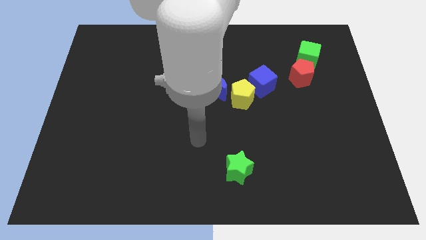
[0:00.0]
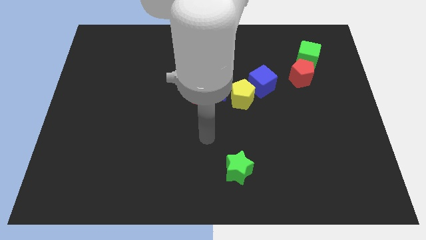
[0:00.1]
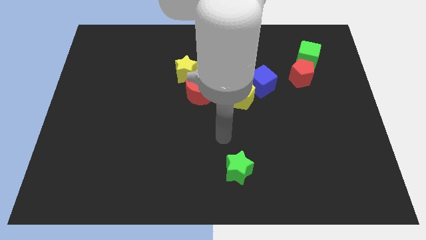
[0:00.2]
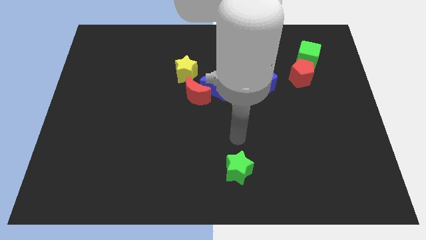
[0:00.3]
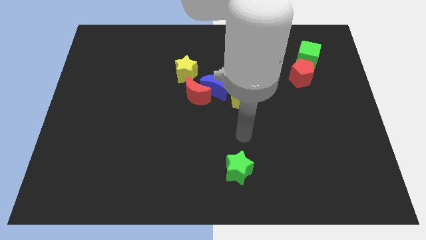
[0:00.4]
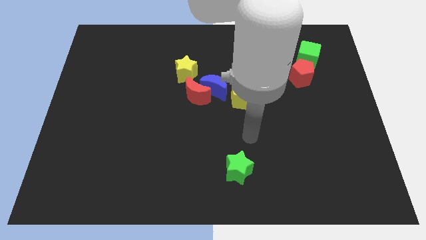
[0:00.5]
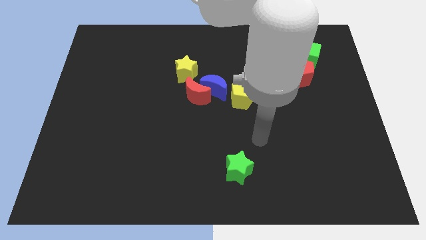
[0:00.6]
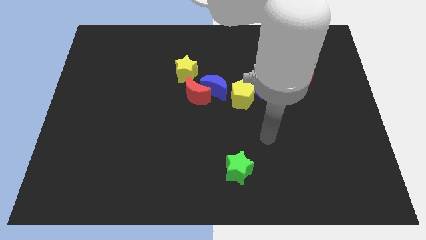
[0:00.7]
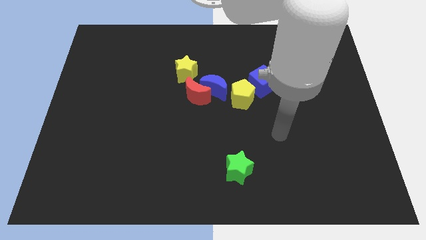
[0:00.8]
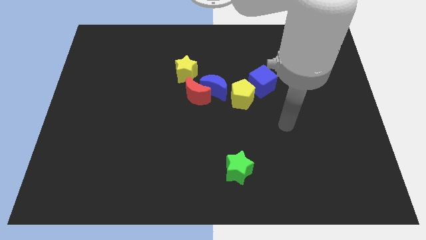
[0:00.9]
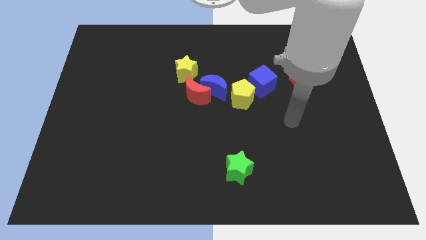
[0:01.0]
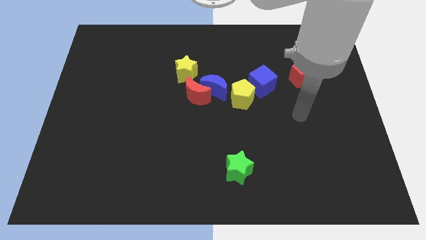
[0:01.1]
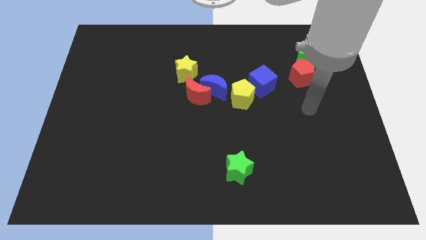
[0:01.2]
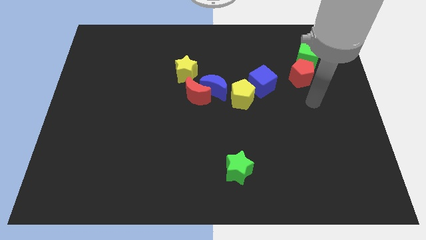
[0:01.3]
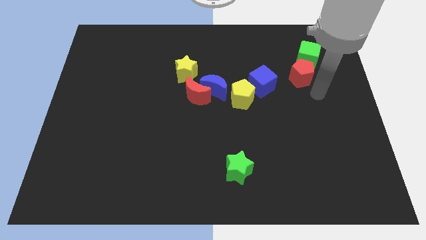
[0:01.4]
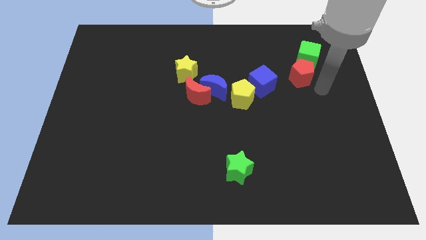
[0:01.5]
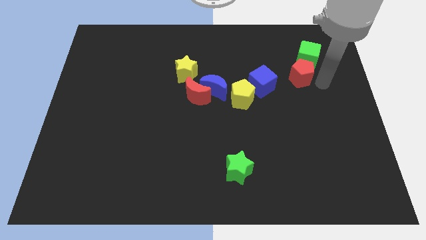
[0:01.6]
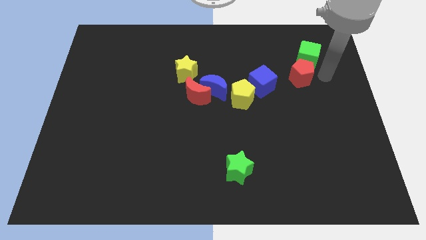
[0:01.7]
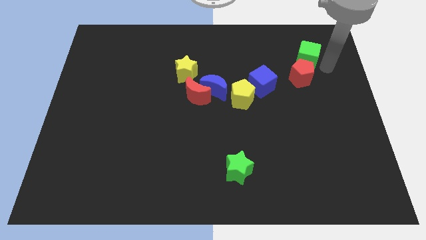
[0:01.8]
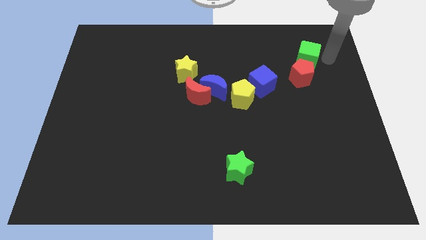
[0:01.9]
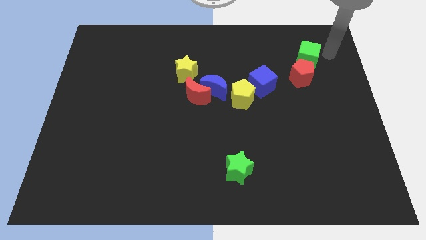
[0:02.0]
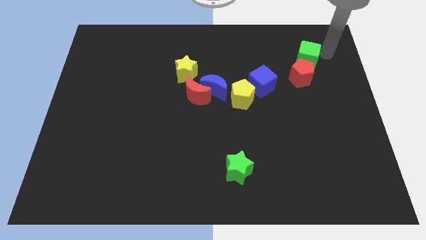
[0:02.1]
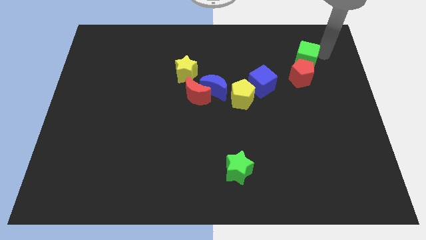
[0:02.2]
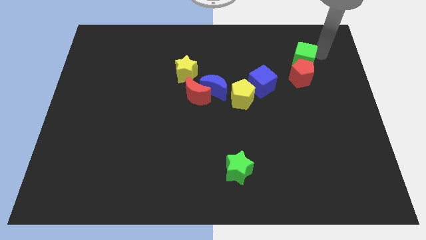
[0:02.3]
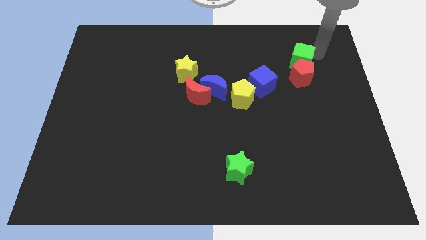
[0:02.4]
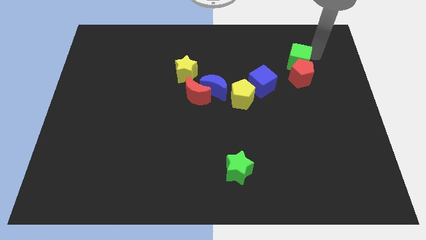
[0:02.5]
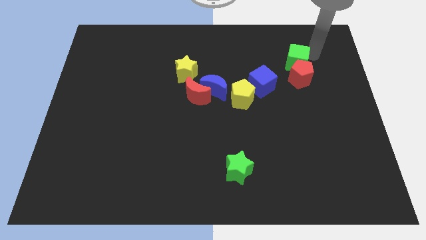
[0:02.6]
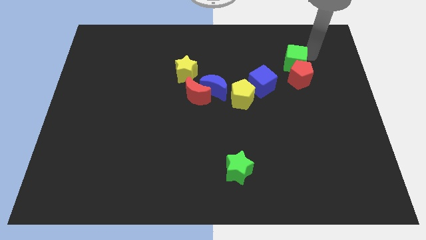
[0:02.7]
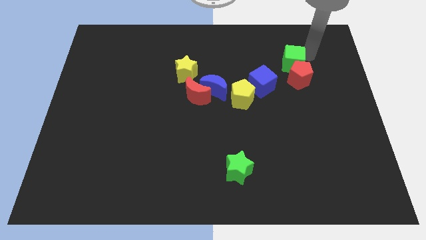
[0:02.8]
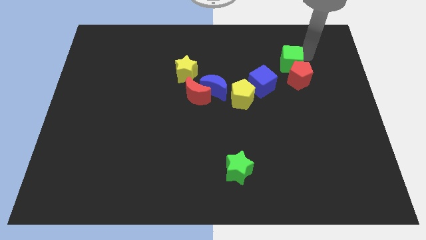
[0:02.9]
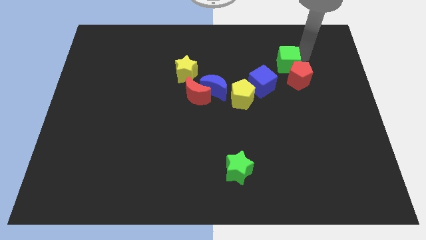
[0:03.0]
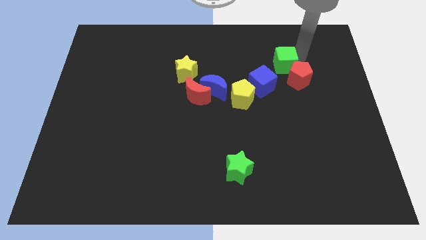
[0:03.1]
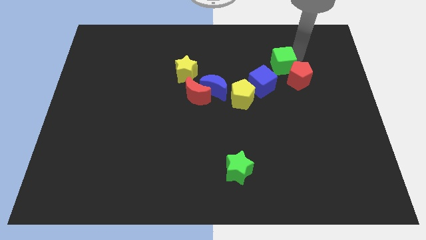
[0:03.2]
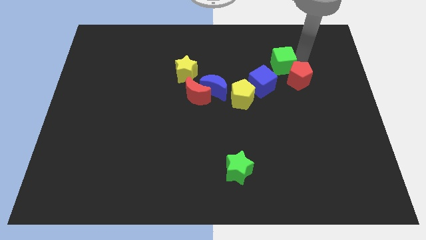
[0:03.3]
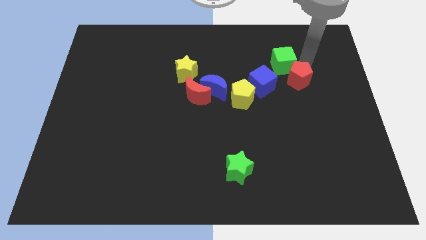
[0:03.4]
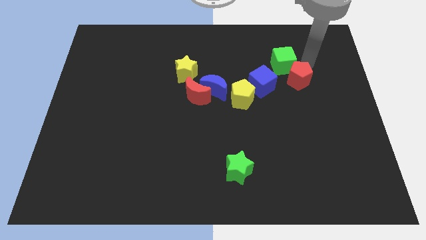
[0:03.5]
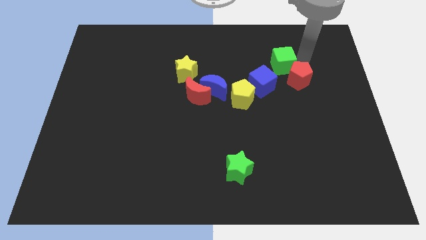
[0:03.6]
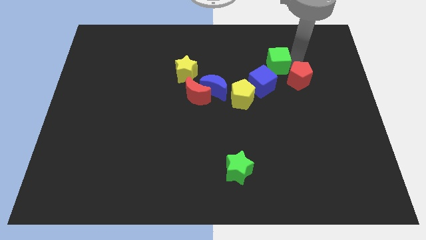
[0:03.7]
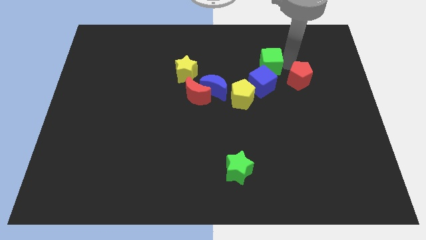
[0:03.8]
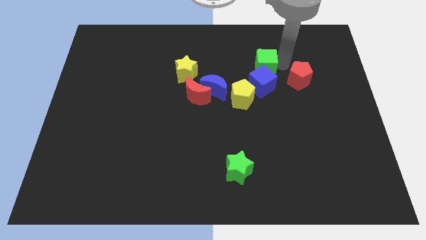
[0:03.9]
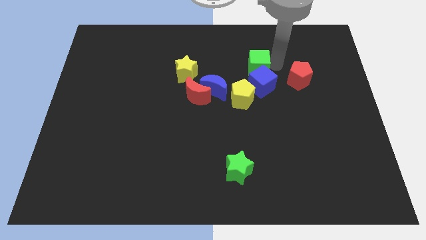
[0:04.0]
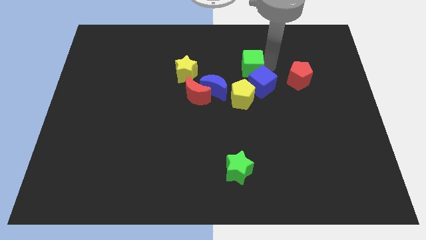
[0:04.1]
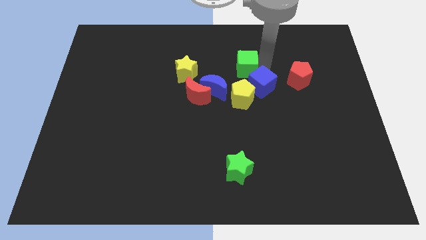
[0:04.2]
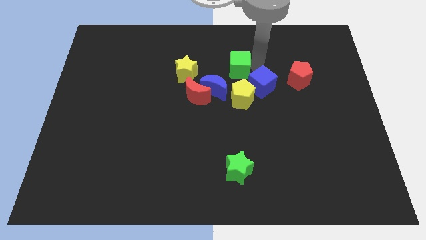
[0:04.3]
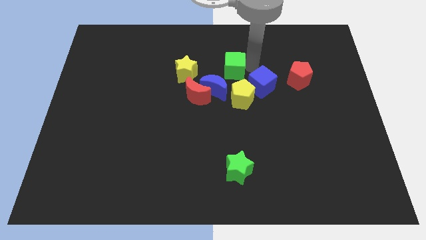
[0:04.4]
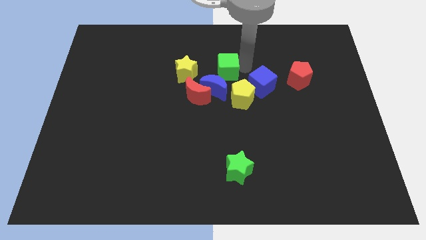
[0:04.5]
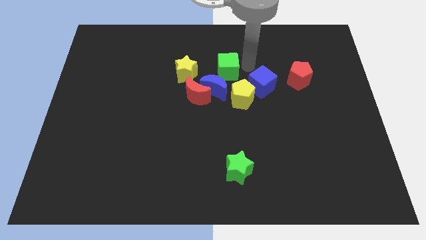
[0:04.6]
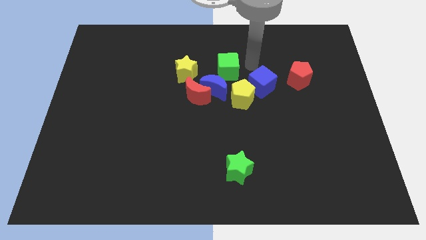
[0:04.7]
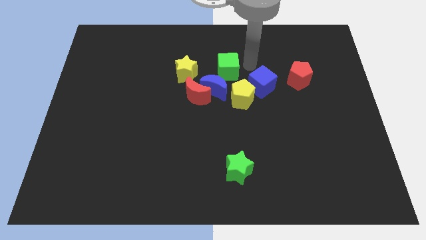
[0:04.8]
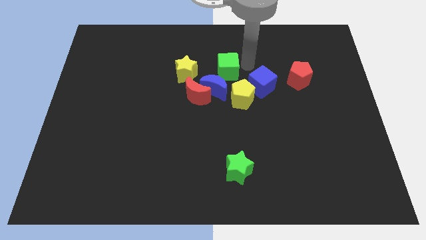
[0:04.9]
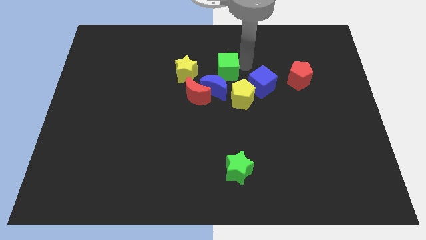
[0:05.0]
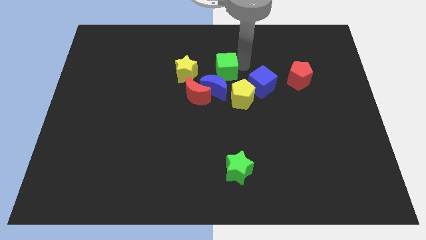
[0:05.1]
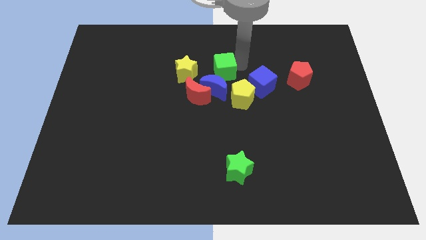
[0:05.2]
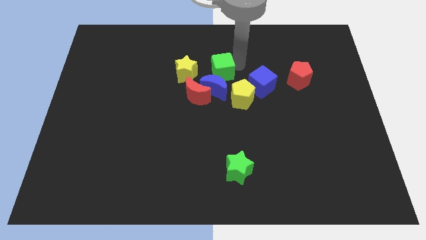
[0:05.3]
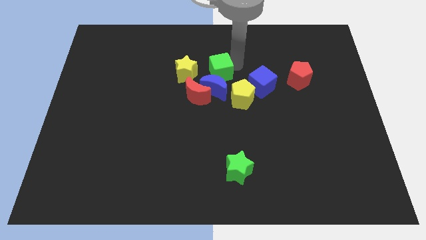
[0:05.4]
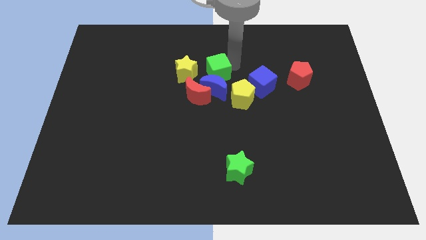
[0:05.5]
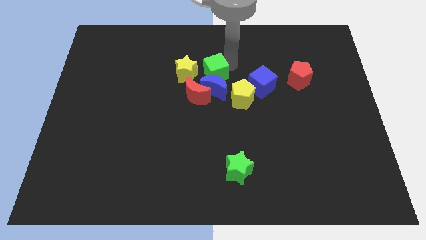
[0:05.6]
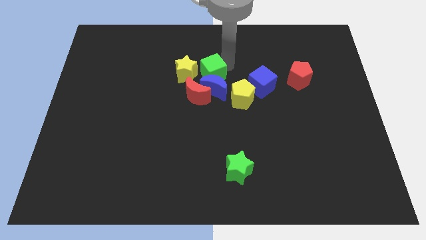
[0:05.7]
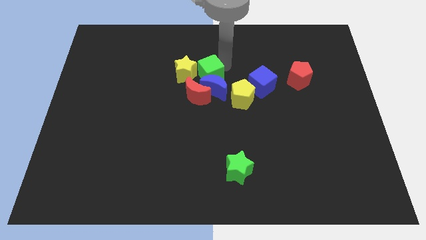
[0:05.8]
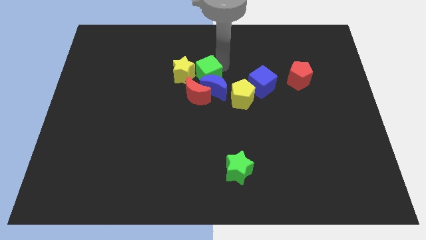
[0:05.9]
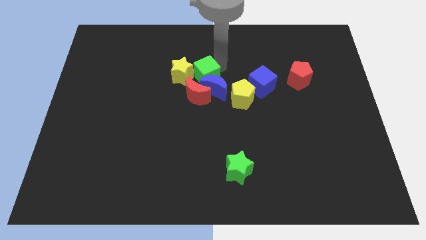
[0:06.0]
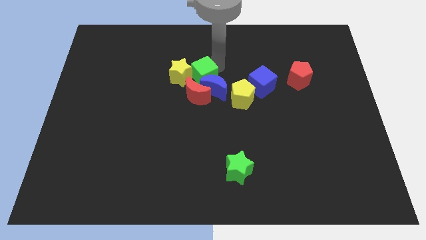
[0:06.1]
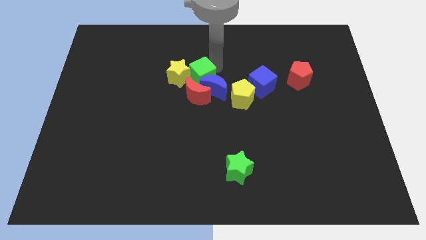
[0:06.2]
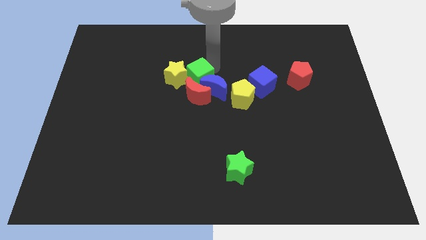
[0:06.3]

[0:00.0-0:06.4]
move the green cube next to the red moon

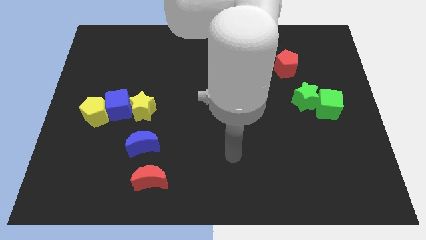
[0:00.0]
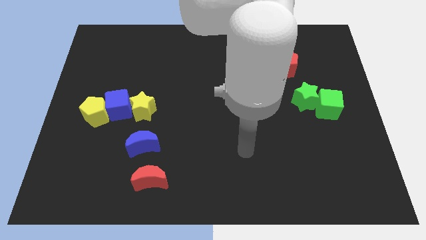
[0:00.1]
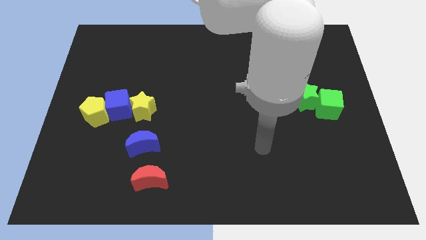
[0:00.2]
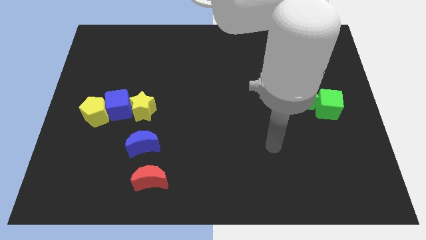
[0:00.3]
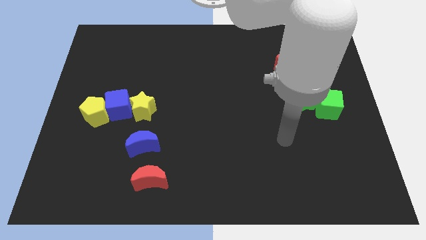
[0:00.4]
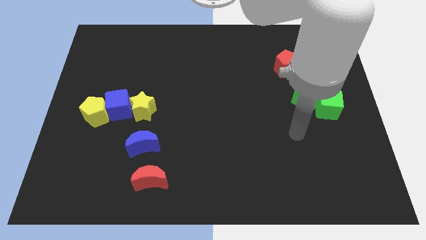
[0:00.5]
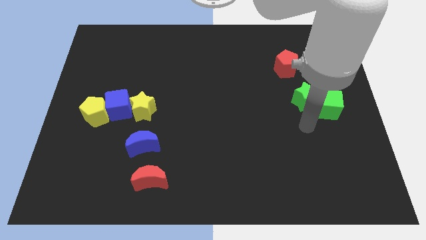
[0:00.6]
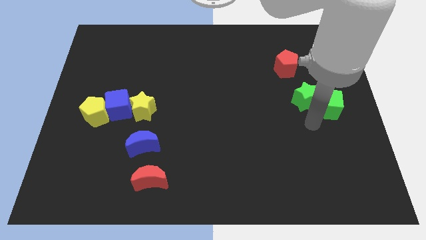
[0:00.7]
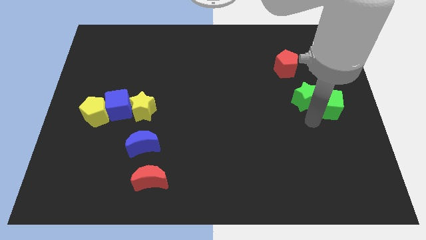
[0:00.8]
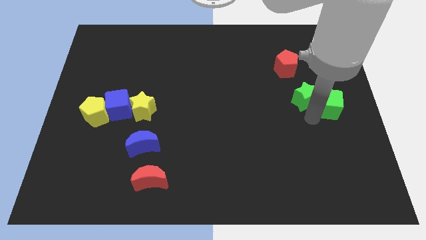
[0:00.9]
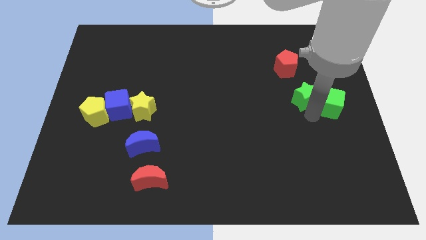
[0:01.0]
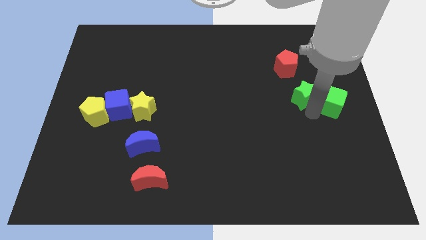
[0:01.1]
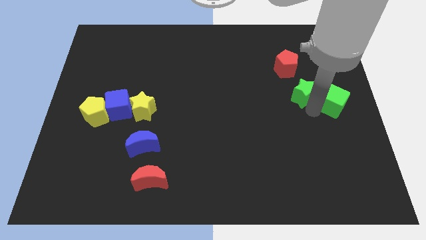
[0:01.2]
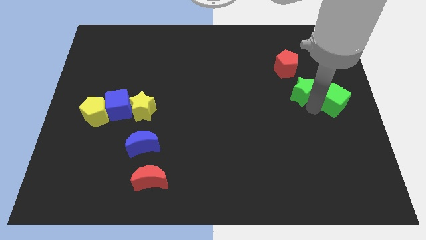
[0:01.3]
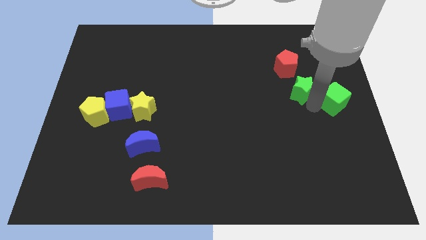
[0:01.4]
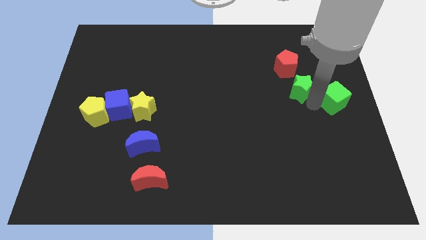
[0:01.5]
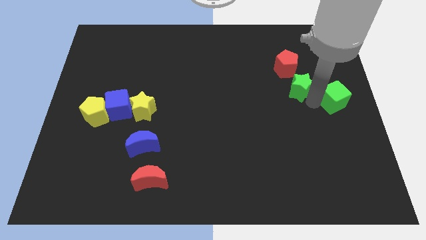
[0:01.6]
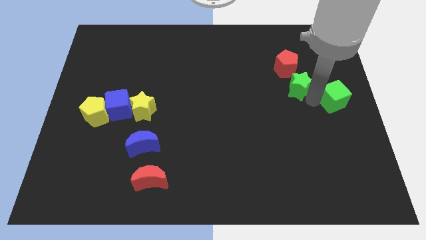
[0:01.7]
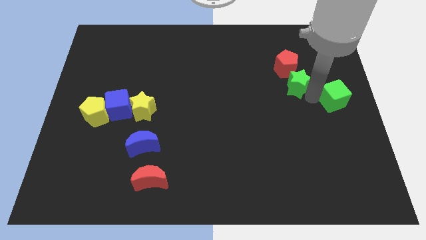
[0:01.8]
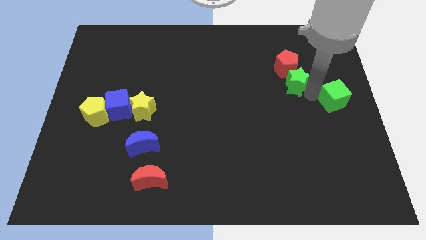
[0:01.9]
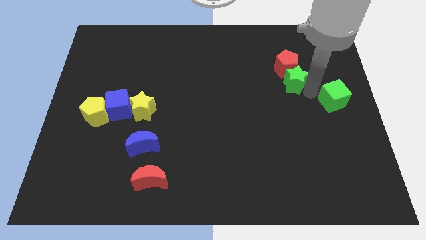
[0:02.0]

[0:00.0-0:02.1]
slide the green star next to the red pentagon
